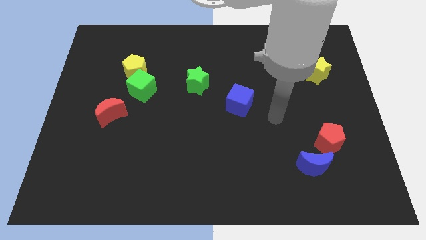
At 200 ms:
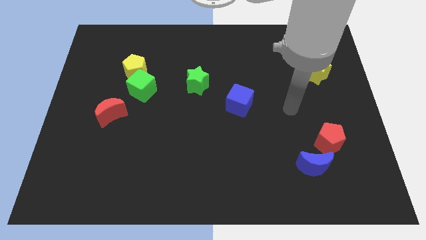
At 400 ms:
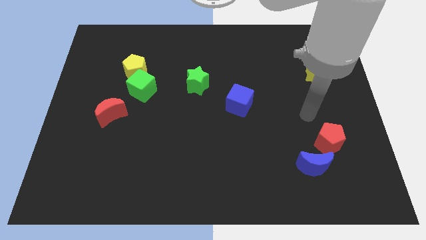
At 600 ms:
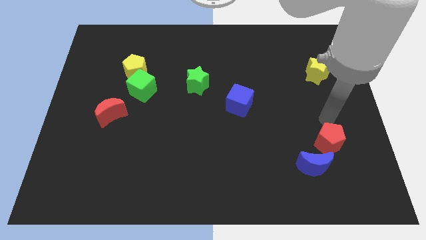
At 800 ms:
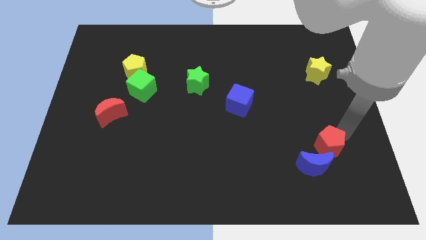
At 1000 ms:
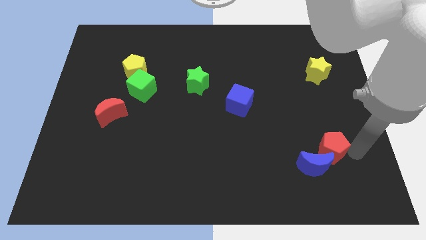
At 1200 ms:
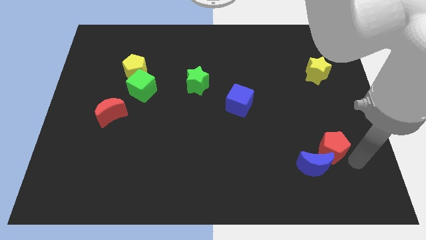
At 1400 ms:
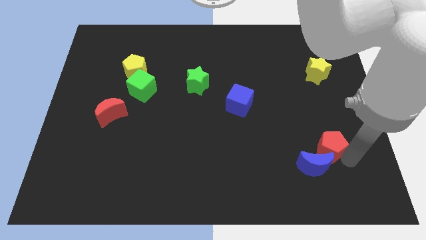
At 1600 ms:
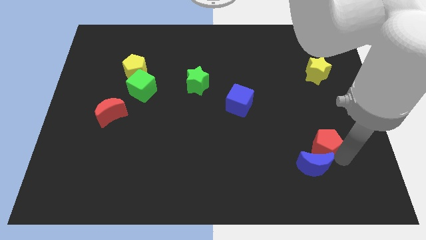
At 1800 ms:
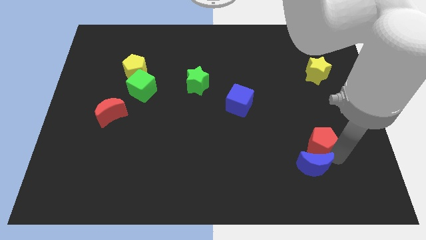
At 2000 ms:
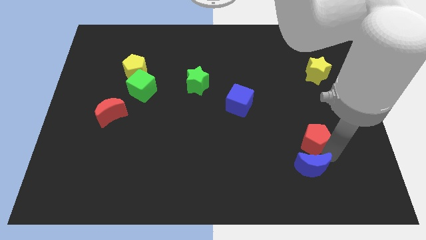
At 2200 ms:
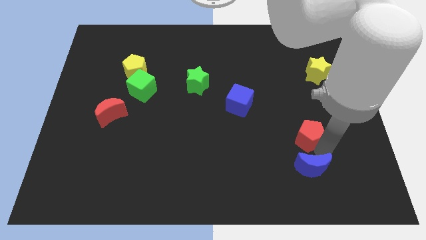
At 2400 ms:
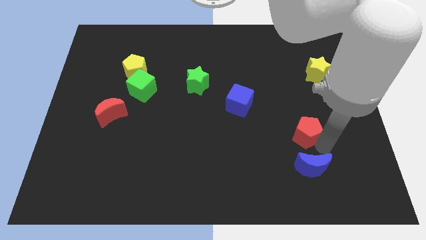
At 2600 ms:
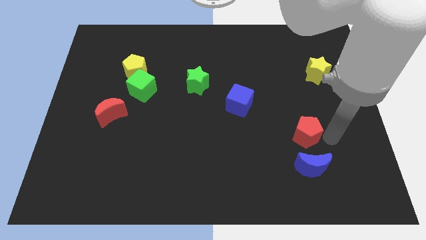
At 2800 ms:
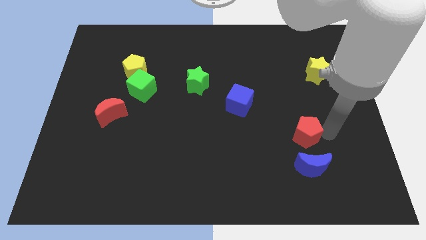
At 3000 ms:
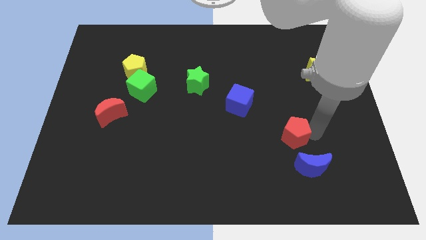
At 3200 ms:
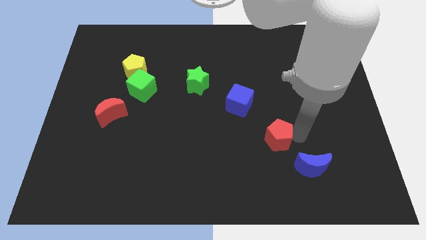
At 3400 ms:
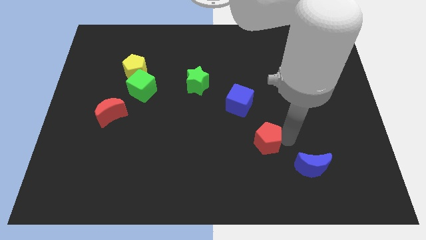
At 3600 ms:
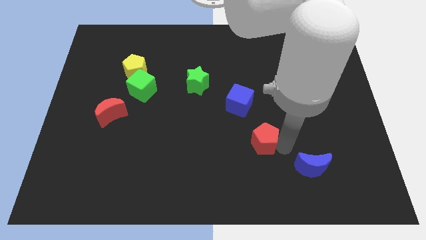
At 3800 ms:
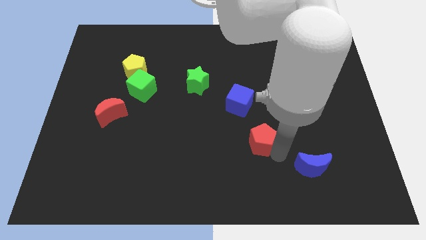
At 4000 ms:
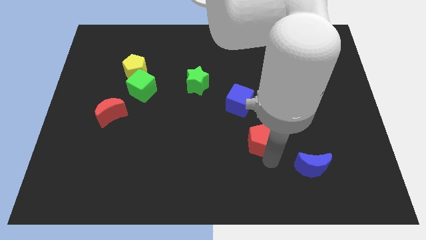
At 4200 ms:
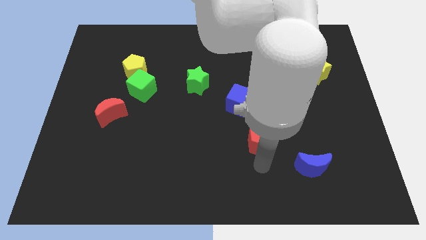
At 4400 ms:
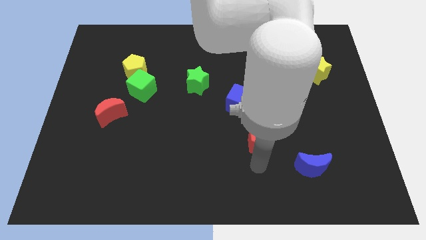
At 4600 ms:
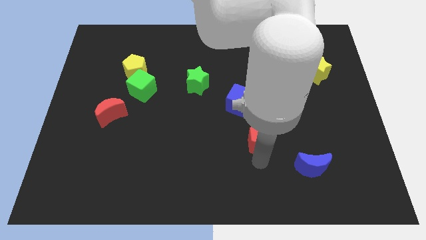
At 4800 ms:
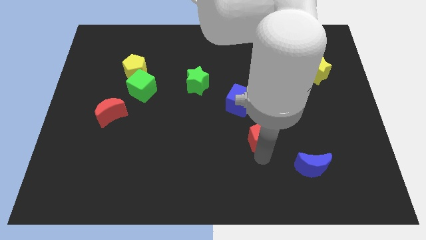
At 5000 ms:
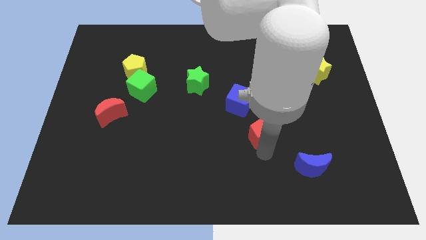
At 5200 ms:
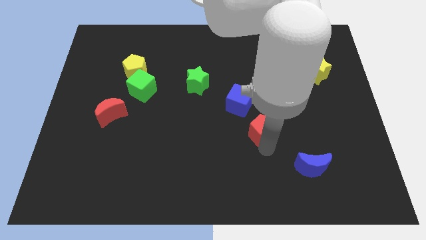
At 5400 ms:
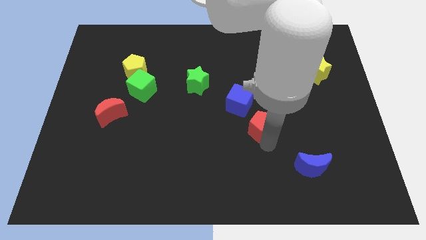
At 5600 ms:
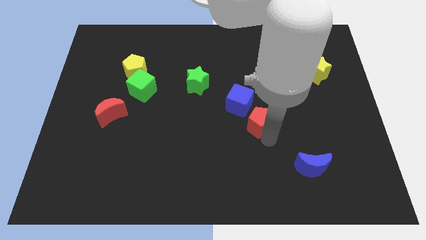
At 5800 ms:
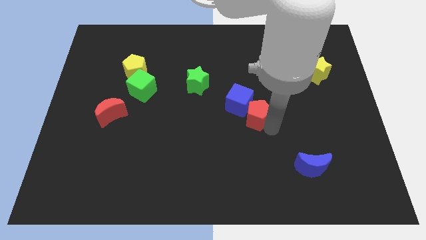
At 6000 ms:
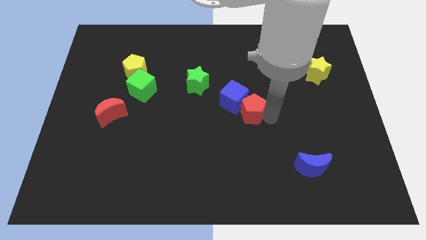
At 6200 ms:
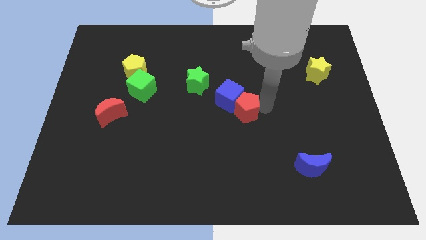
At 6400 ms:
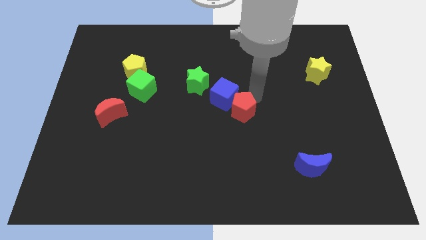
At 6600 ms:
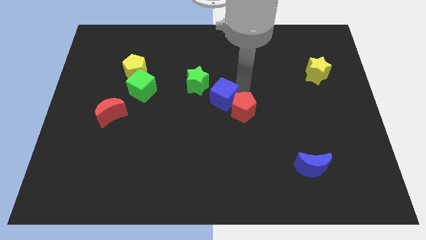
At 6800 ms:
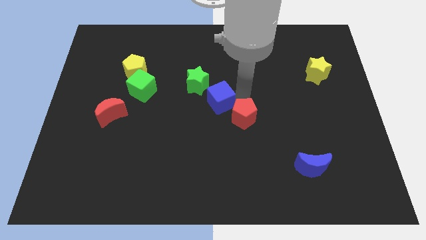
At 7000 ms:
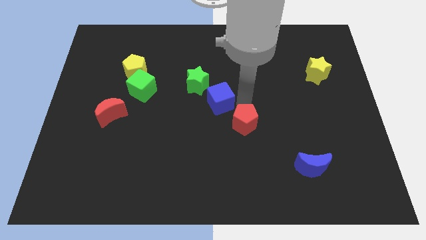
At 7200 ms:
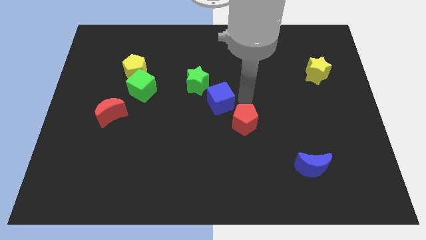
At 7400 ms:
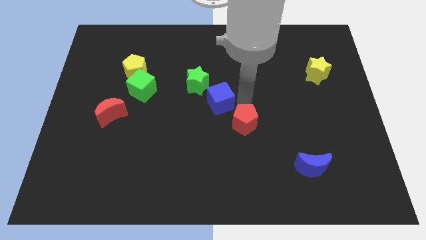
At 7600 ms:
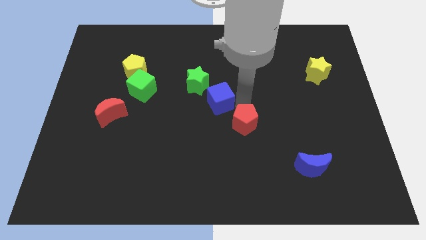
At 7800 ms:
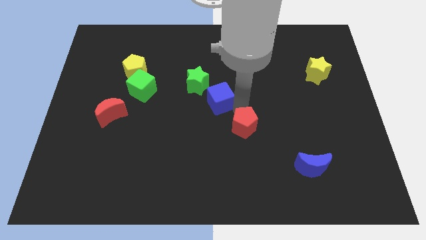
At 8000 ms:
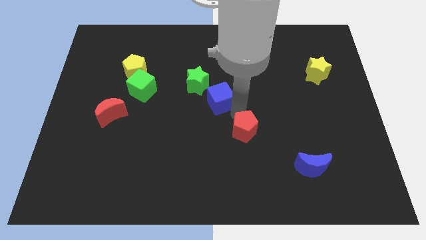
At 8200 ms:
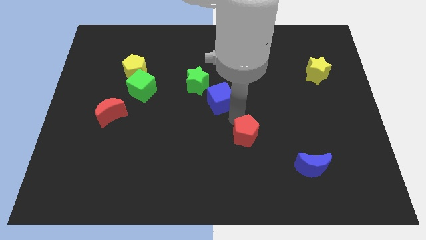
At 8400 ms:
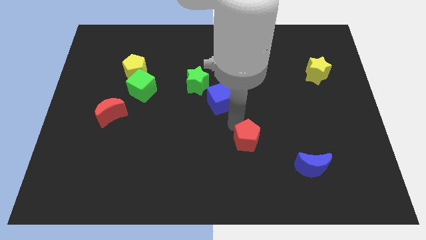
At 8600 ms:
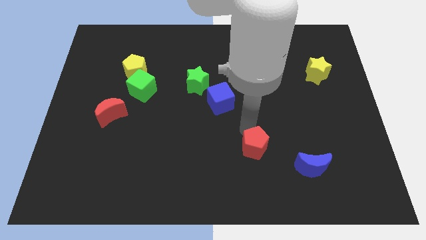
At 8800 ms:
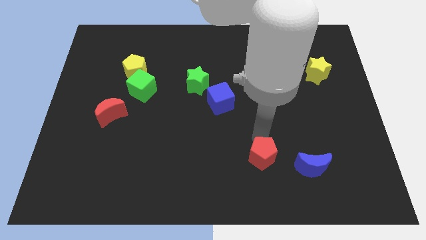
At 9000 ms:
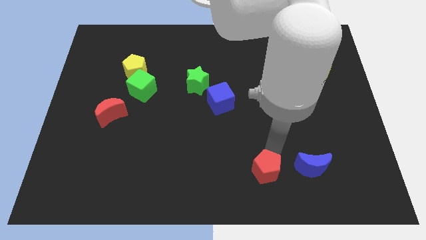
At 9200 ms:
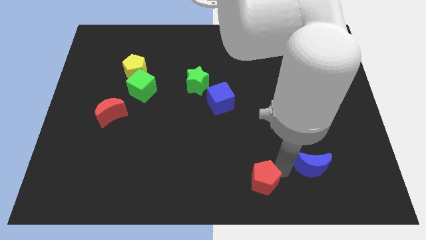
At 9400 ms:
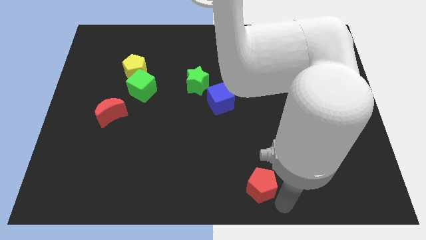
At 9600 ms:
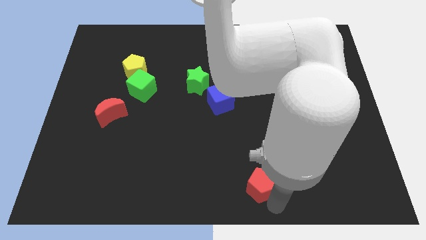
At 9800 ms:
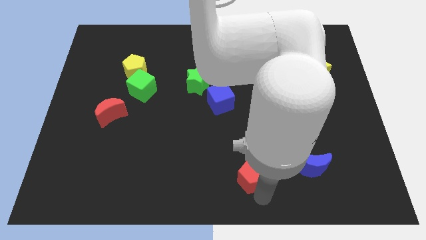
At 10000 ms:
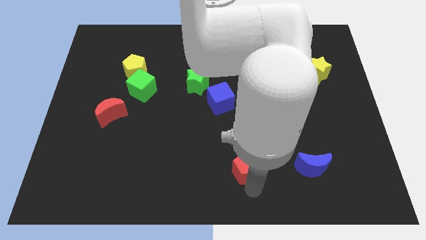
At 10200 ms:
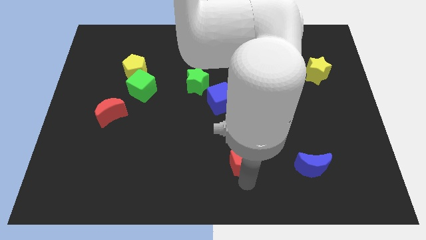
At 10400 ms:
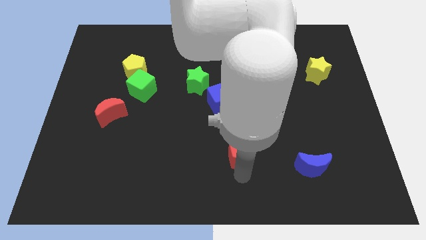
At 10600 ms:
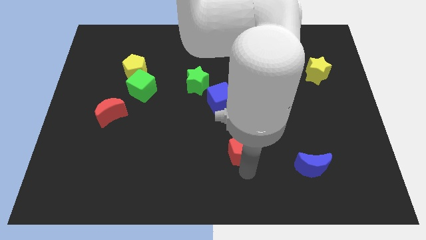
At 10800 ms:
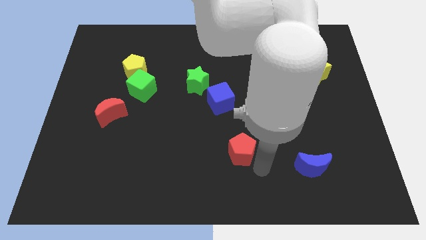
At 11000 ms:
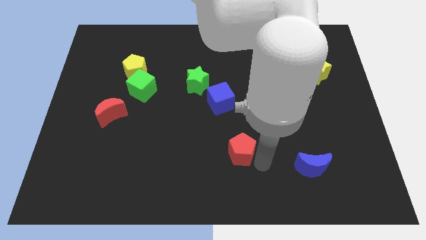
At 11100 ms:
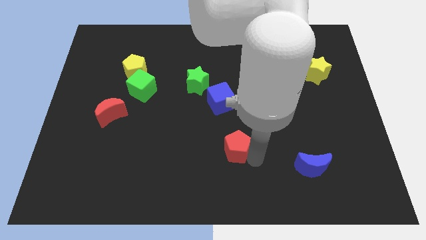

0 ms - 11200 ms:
push the red pentagon left

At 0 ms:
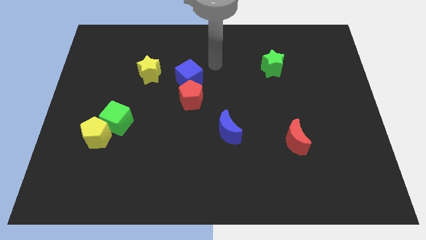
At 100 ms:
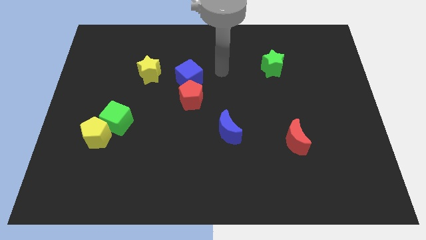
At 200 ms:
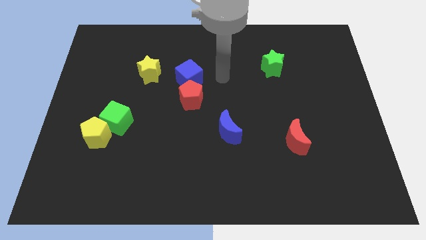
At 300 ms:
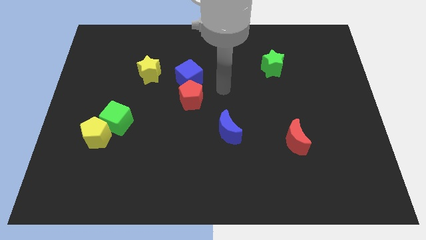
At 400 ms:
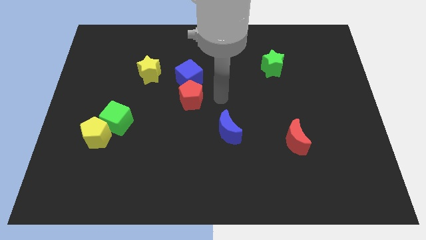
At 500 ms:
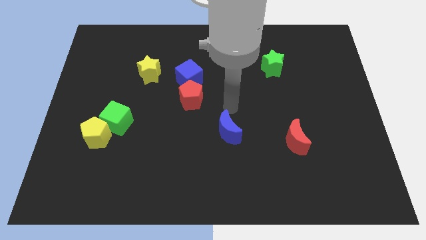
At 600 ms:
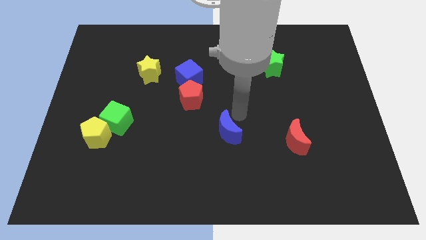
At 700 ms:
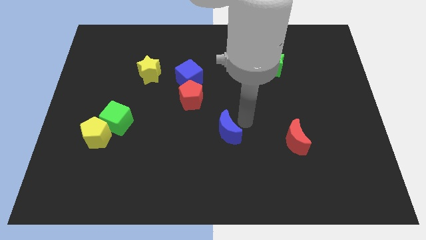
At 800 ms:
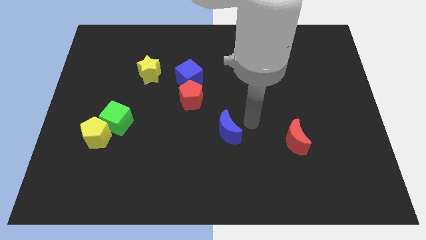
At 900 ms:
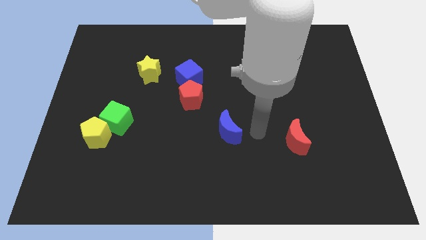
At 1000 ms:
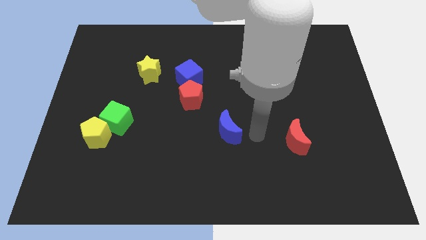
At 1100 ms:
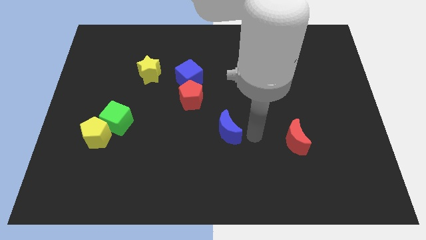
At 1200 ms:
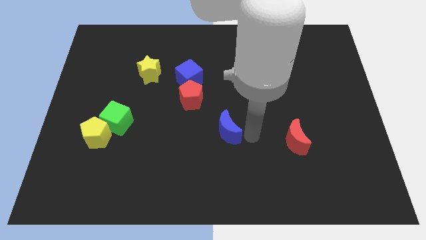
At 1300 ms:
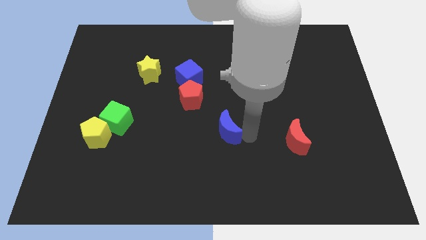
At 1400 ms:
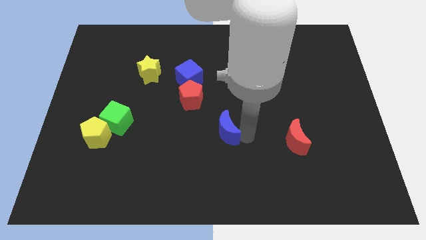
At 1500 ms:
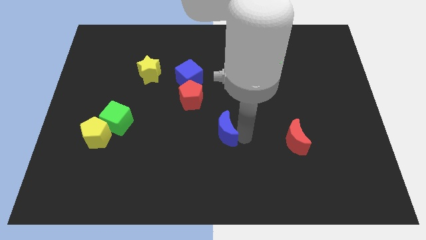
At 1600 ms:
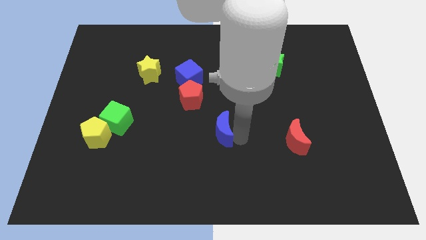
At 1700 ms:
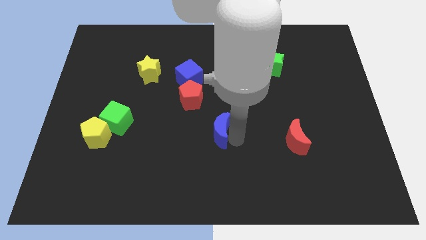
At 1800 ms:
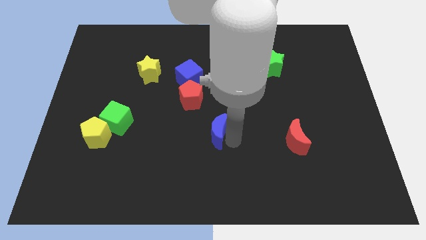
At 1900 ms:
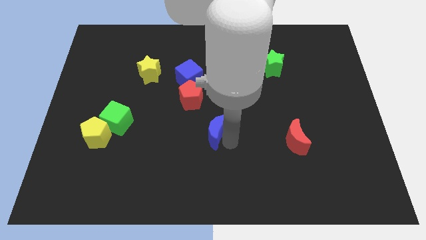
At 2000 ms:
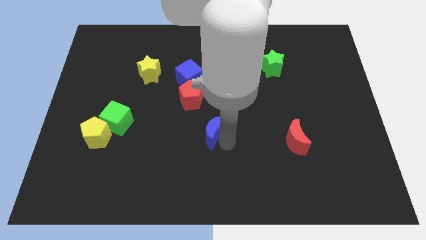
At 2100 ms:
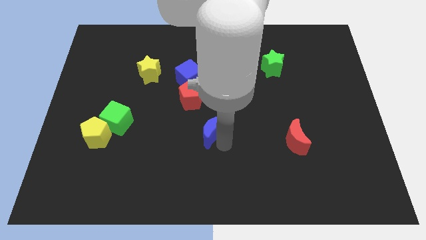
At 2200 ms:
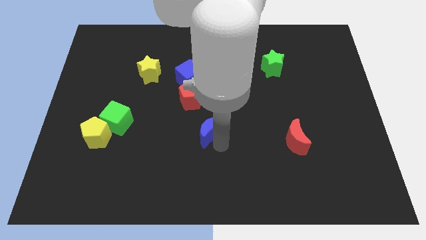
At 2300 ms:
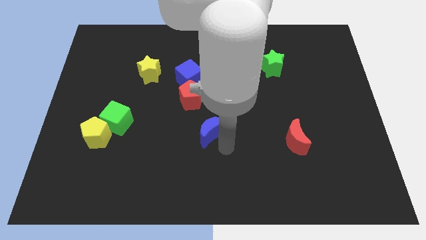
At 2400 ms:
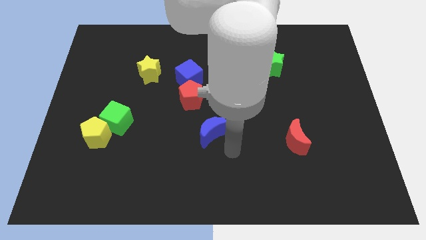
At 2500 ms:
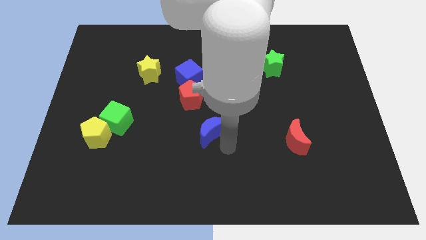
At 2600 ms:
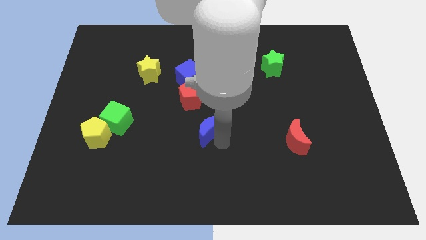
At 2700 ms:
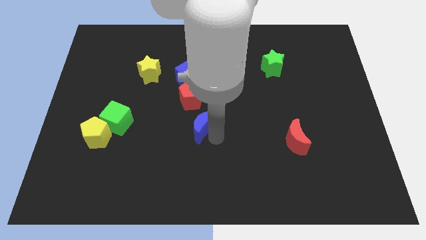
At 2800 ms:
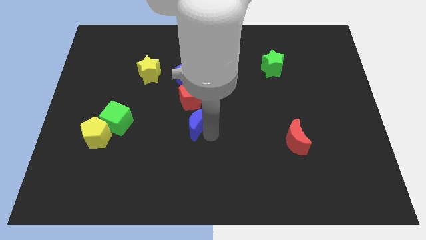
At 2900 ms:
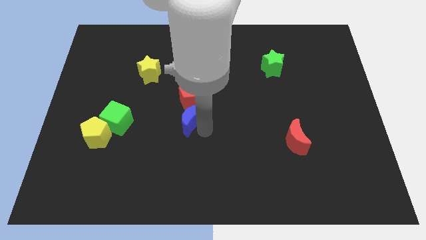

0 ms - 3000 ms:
slide the blue moon a little bit diagonally up and to the left
